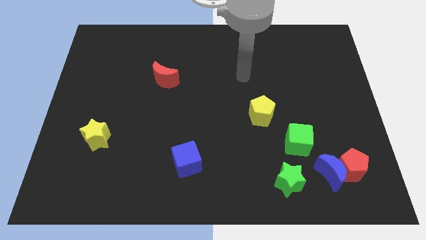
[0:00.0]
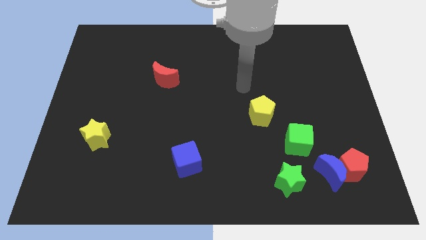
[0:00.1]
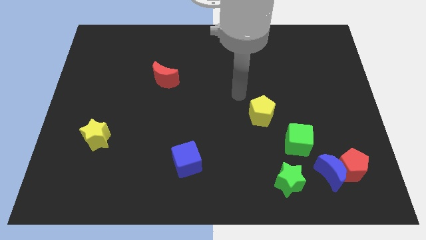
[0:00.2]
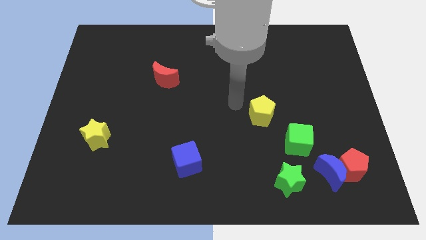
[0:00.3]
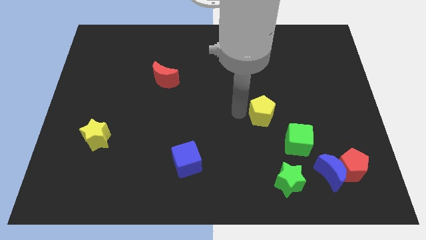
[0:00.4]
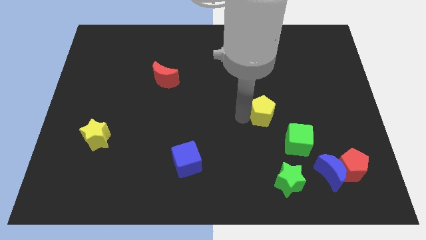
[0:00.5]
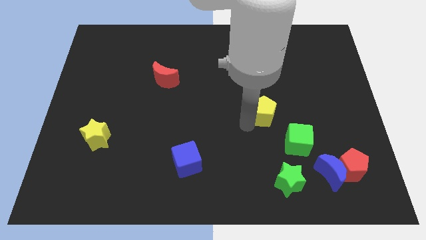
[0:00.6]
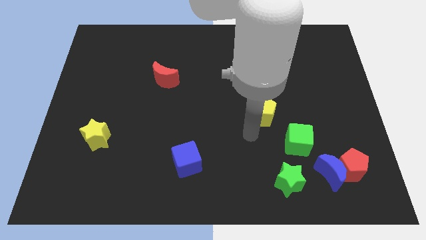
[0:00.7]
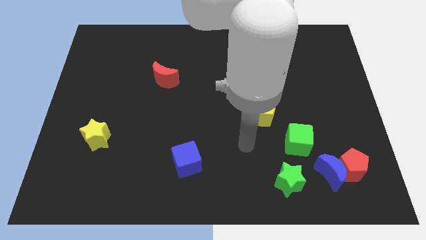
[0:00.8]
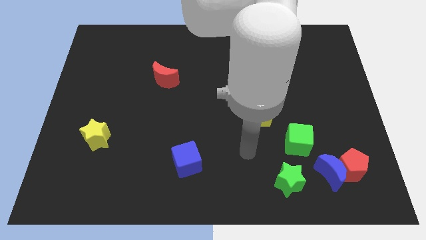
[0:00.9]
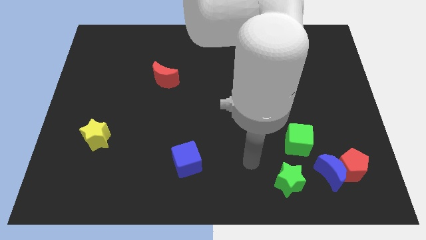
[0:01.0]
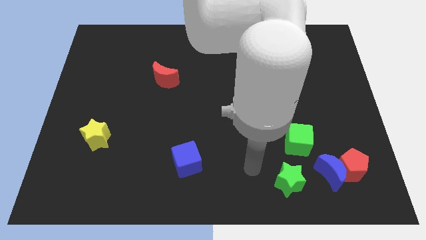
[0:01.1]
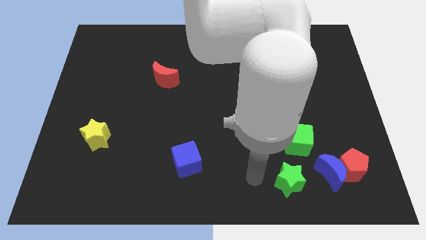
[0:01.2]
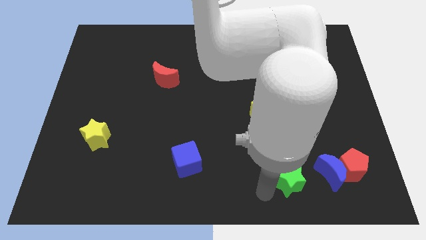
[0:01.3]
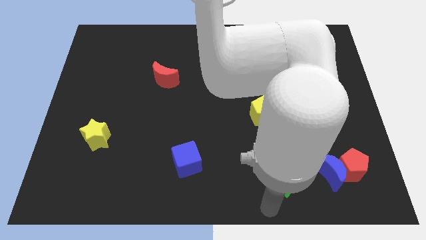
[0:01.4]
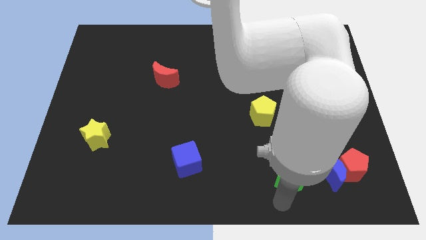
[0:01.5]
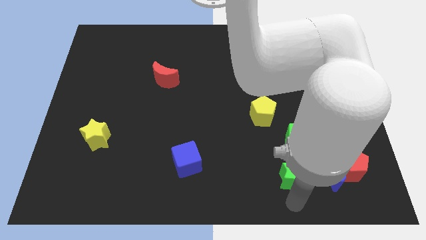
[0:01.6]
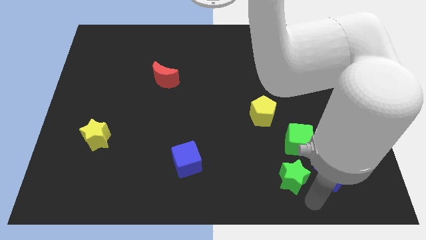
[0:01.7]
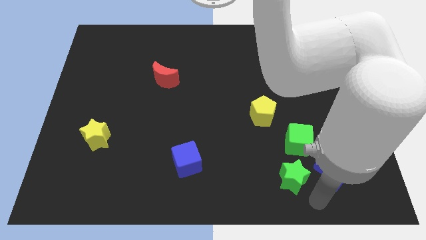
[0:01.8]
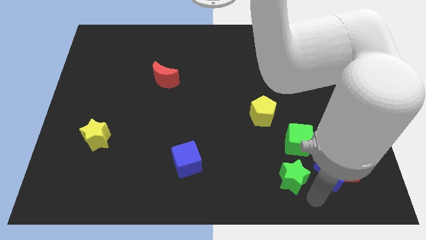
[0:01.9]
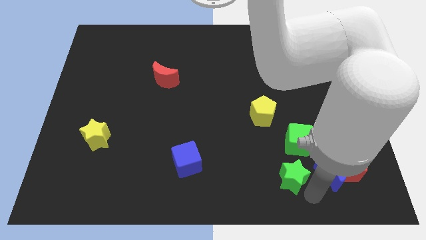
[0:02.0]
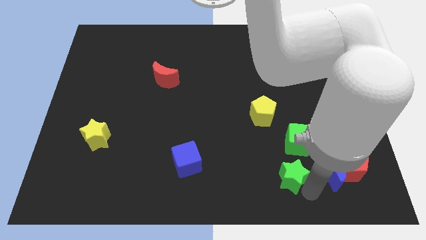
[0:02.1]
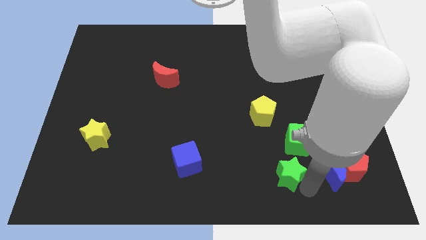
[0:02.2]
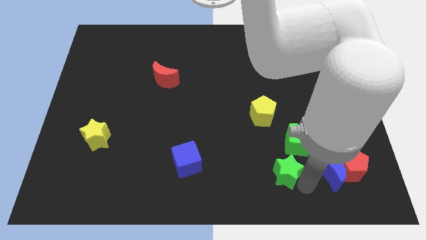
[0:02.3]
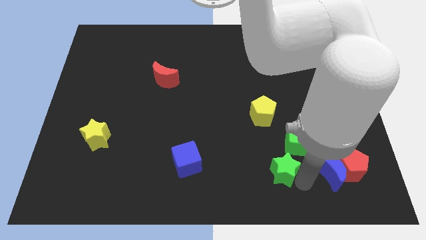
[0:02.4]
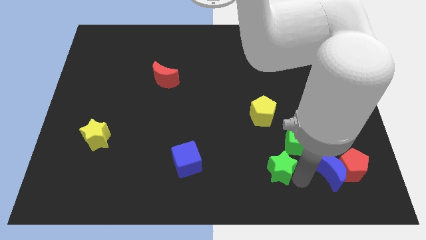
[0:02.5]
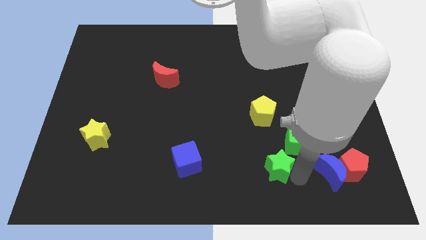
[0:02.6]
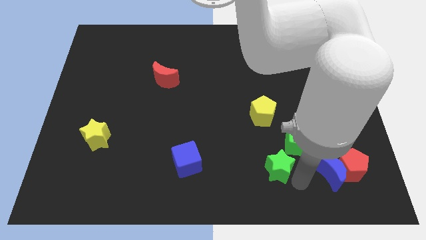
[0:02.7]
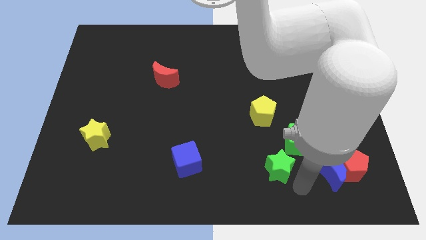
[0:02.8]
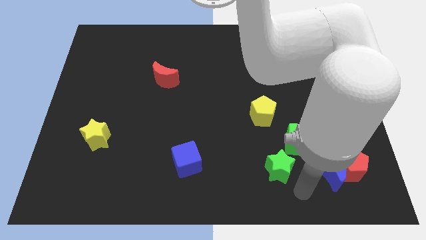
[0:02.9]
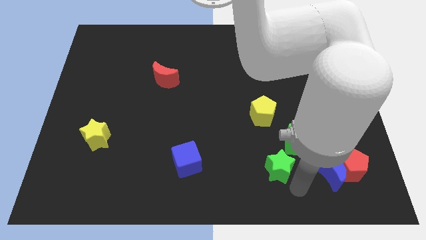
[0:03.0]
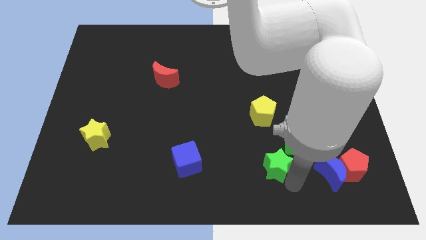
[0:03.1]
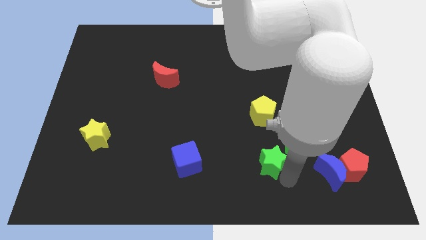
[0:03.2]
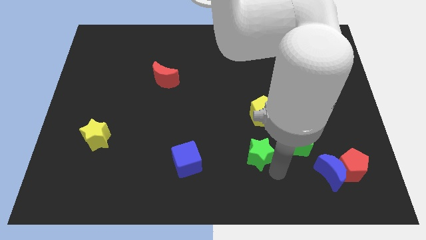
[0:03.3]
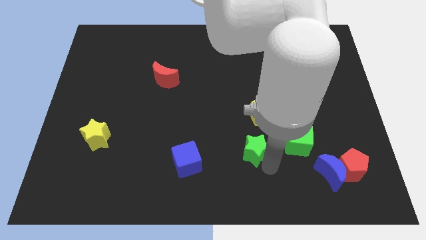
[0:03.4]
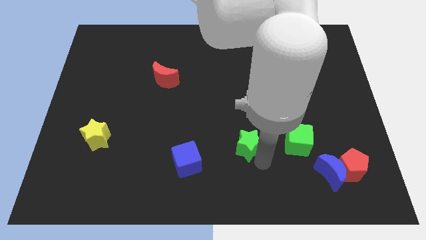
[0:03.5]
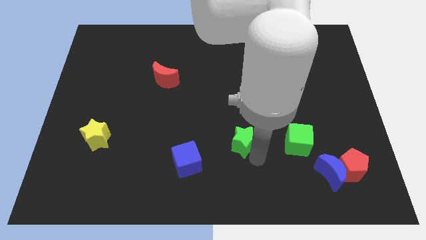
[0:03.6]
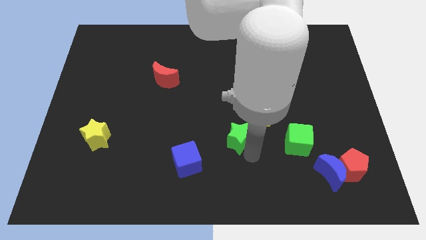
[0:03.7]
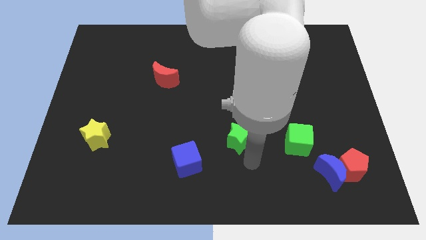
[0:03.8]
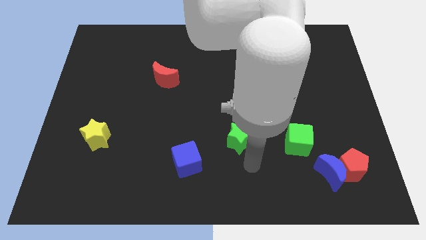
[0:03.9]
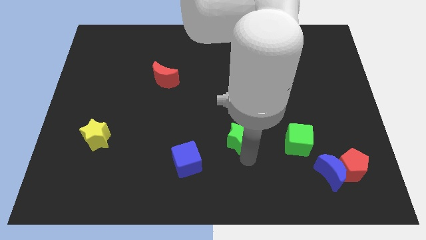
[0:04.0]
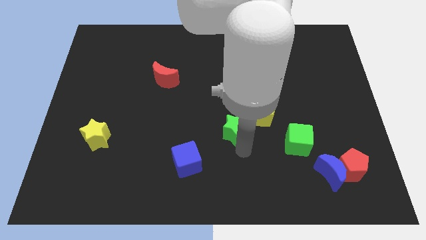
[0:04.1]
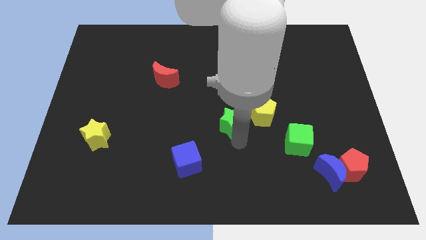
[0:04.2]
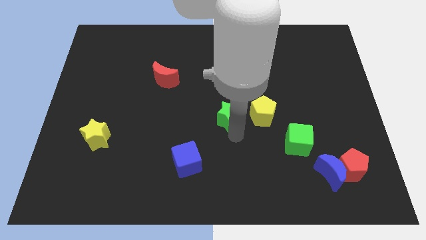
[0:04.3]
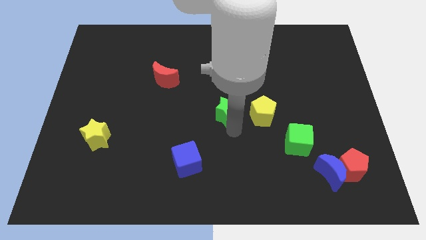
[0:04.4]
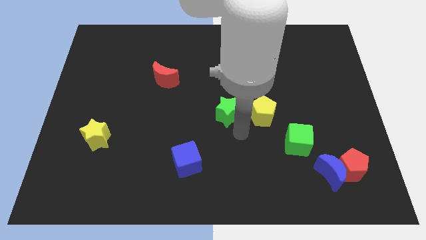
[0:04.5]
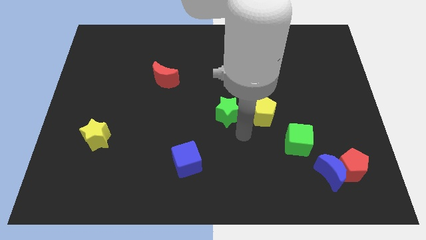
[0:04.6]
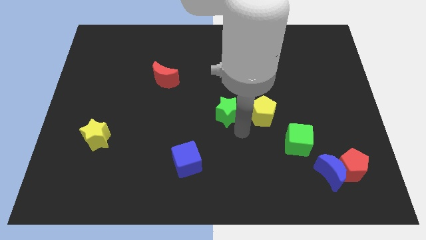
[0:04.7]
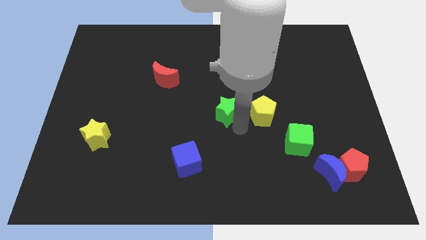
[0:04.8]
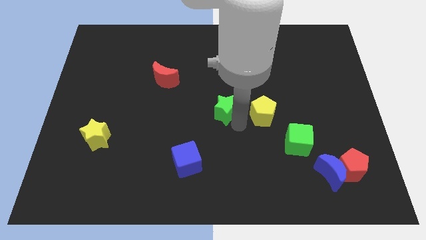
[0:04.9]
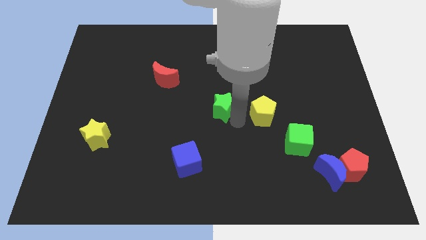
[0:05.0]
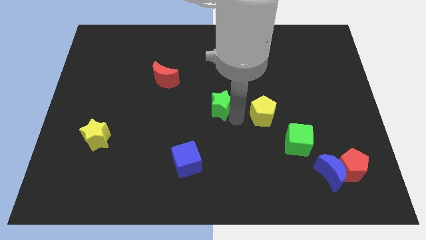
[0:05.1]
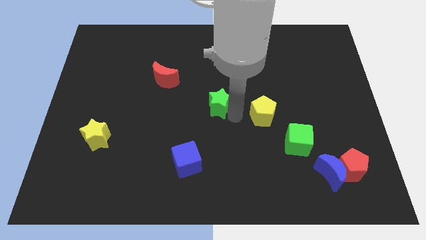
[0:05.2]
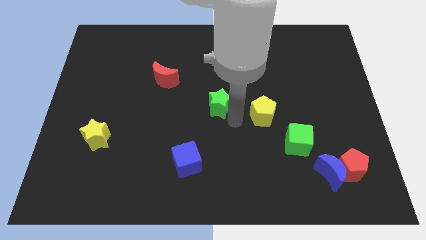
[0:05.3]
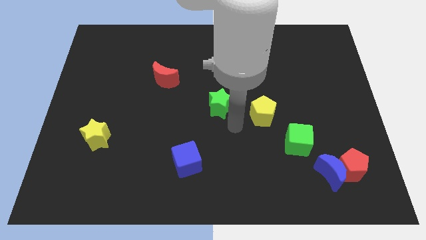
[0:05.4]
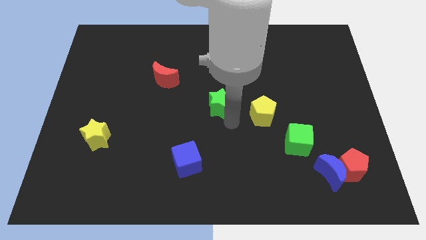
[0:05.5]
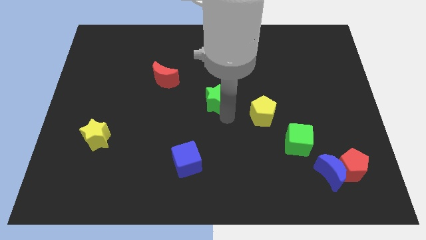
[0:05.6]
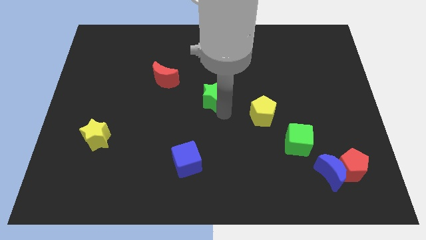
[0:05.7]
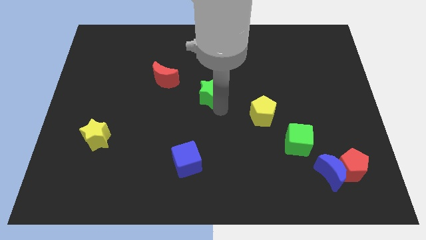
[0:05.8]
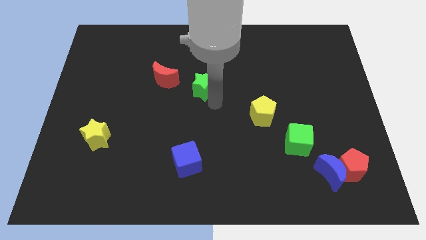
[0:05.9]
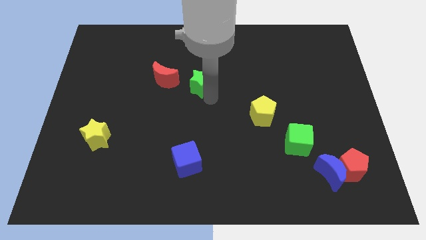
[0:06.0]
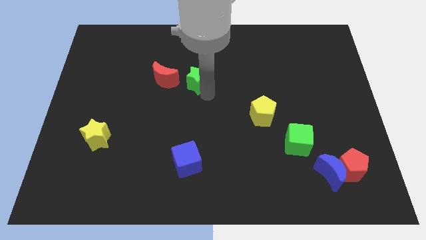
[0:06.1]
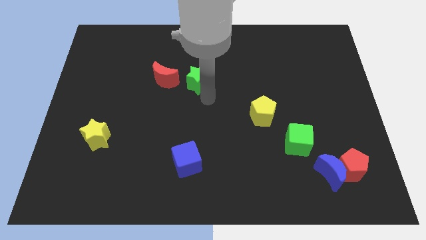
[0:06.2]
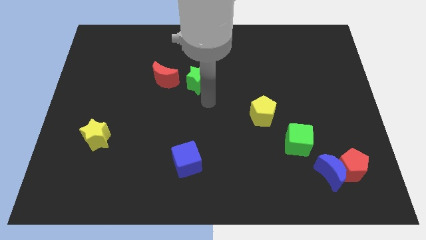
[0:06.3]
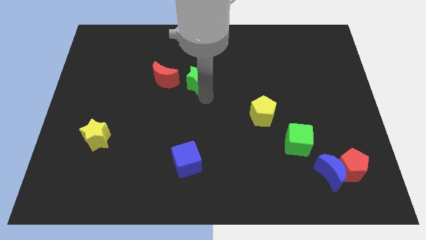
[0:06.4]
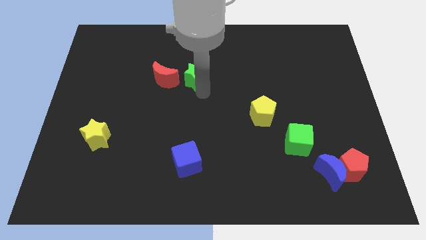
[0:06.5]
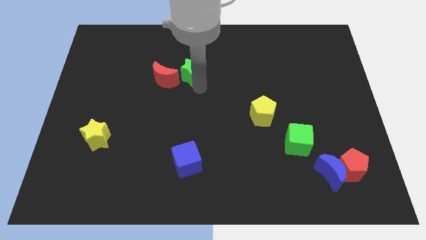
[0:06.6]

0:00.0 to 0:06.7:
slide the green star diagonally up and to the right of the red moon

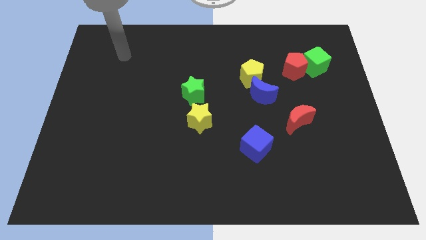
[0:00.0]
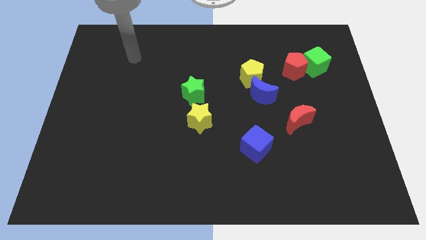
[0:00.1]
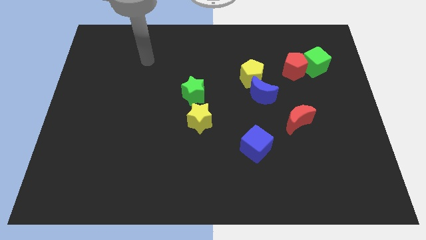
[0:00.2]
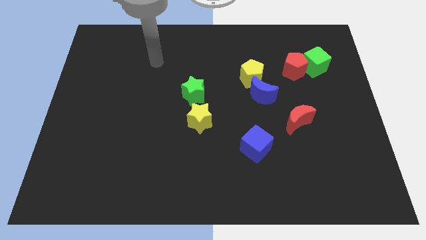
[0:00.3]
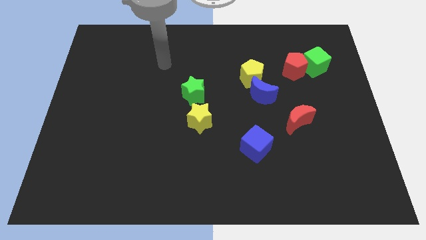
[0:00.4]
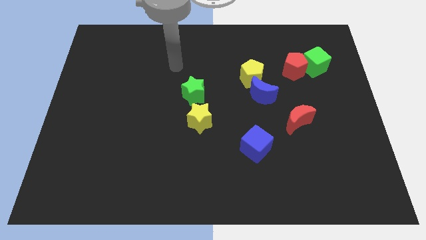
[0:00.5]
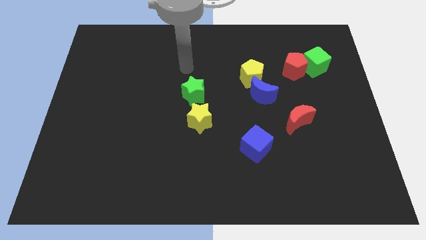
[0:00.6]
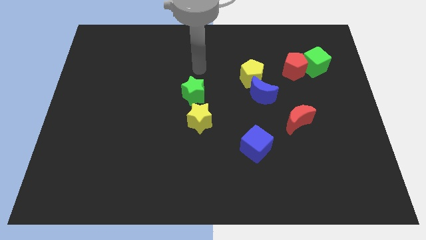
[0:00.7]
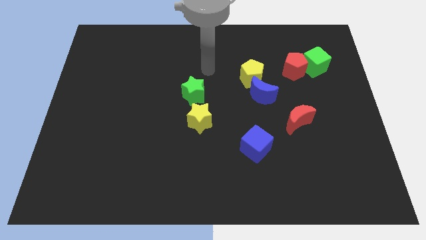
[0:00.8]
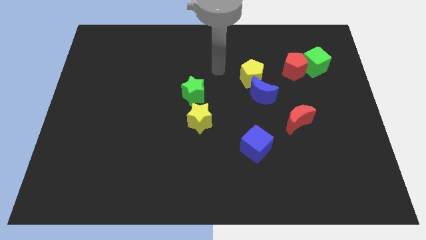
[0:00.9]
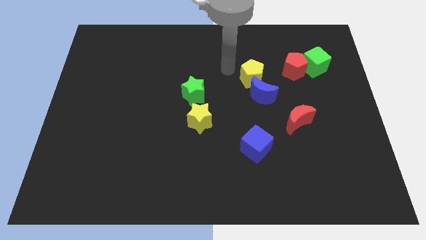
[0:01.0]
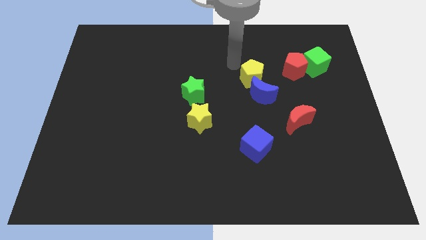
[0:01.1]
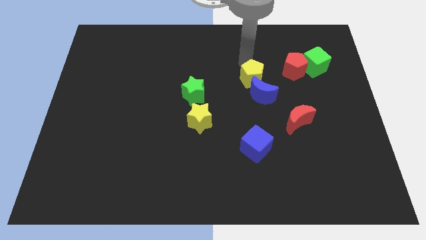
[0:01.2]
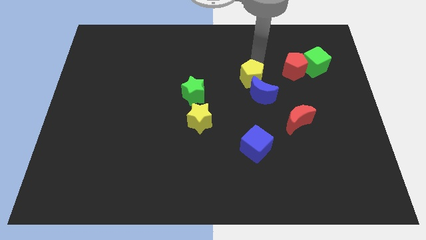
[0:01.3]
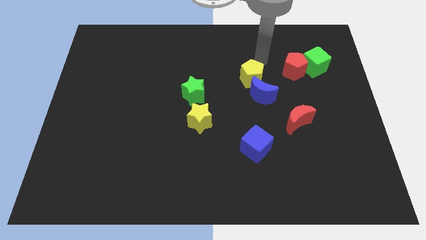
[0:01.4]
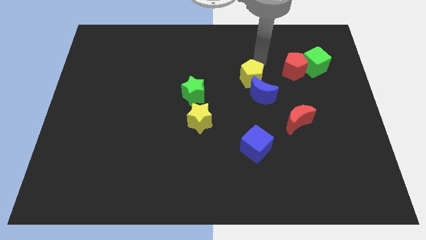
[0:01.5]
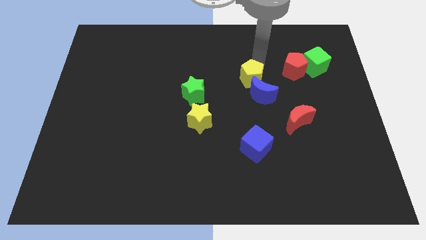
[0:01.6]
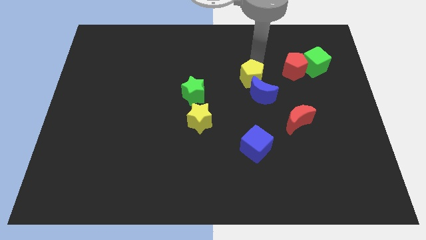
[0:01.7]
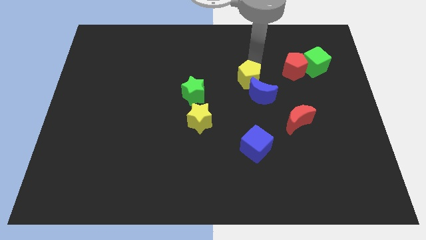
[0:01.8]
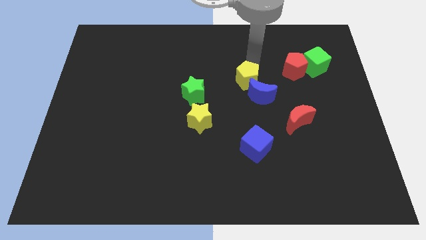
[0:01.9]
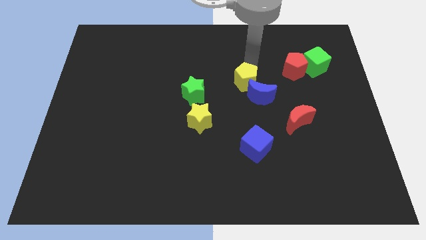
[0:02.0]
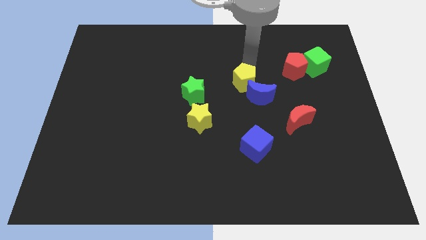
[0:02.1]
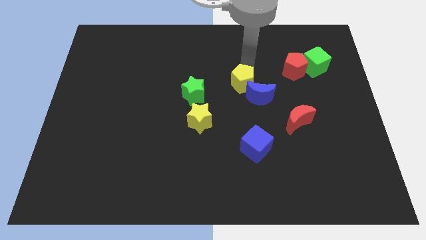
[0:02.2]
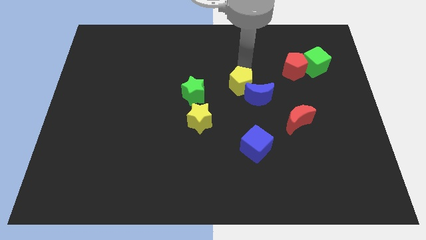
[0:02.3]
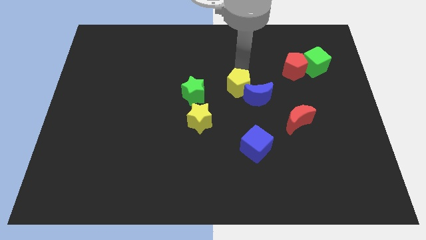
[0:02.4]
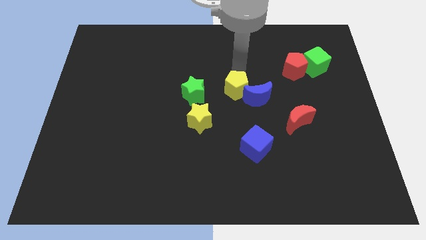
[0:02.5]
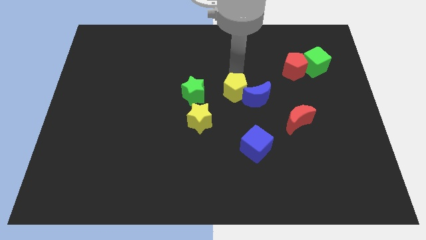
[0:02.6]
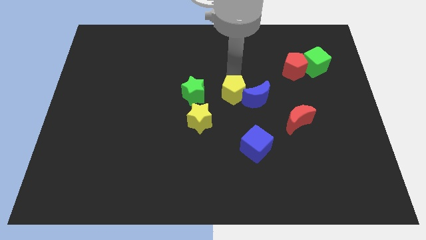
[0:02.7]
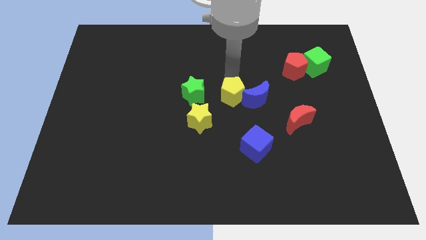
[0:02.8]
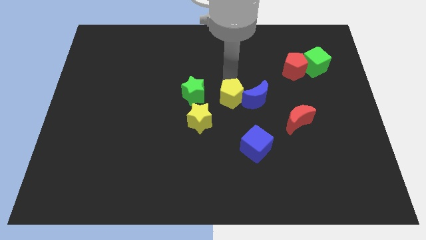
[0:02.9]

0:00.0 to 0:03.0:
slide the yellow pentagon diagonally down and to the left of the blue moon
